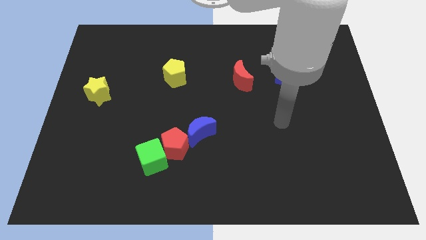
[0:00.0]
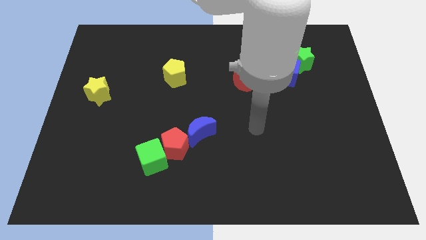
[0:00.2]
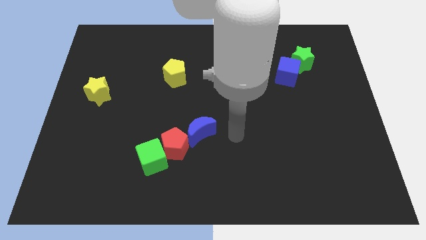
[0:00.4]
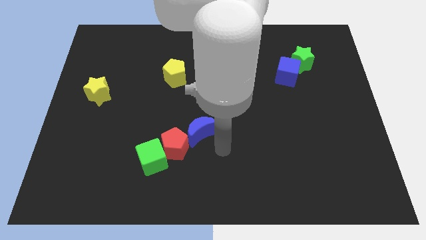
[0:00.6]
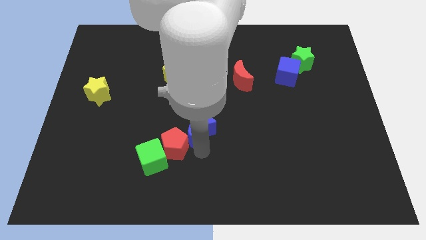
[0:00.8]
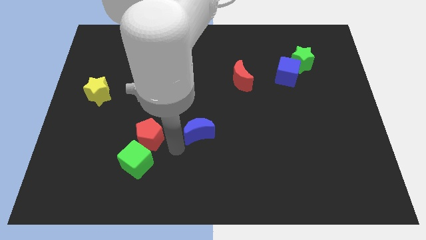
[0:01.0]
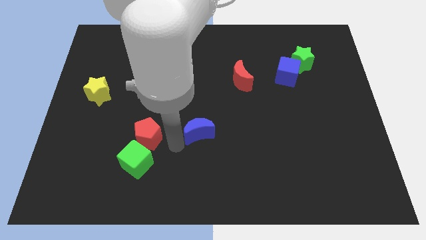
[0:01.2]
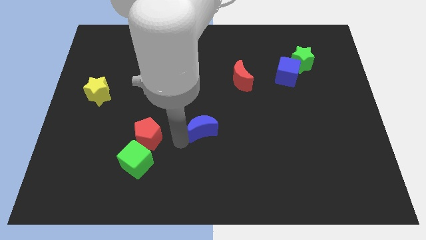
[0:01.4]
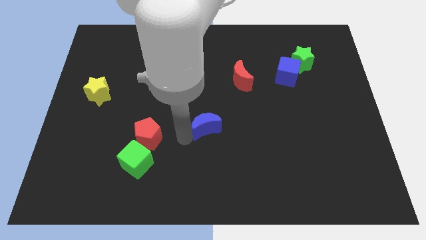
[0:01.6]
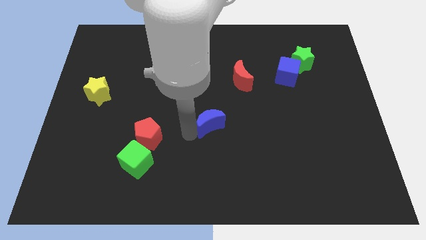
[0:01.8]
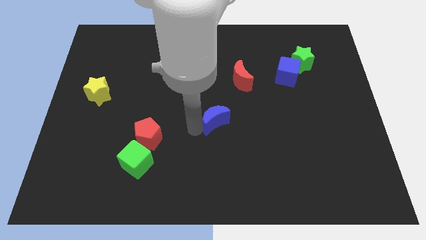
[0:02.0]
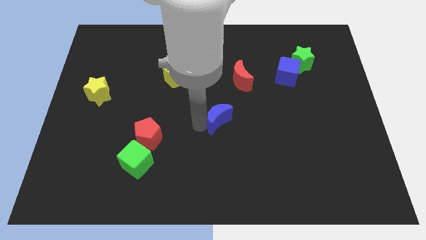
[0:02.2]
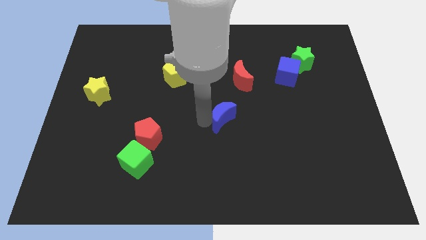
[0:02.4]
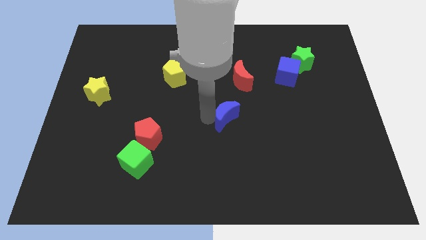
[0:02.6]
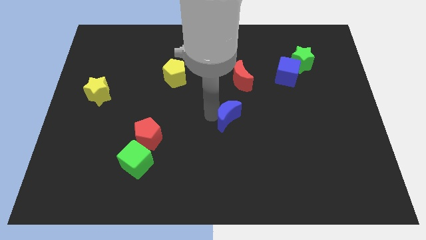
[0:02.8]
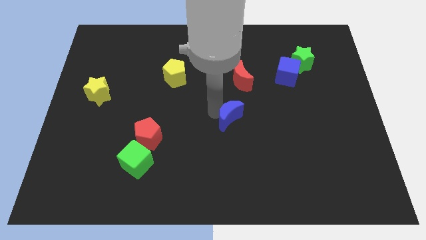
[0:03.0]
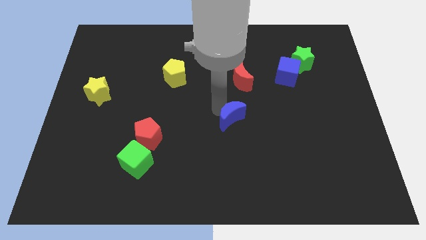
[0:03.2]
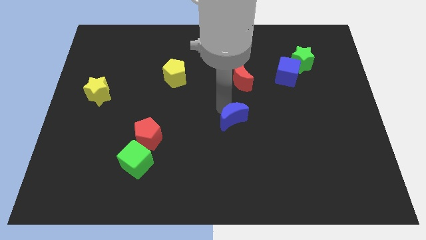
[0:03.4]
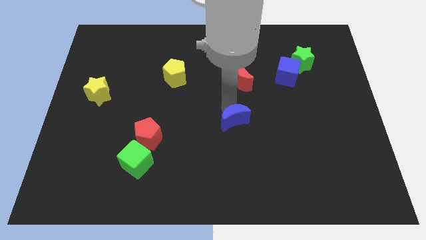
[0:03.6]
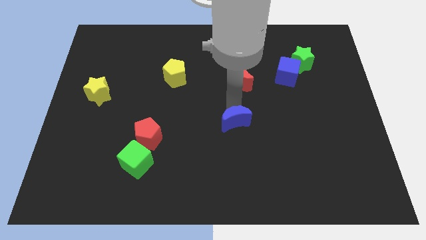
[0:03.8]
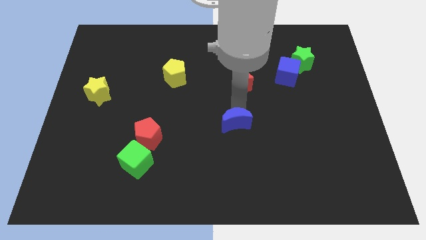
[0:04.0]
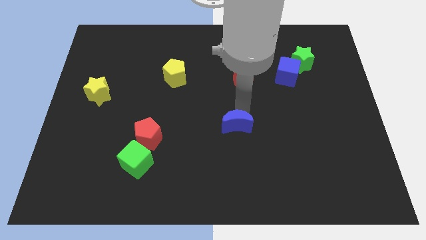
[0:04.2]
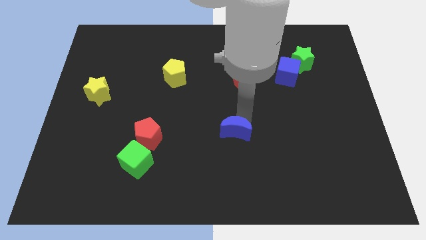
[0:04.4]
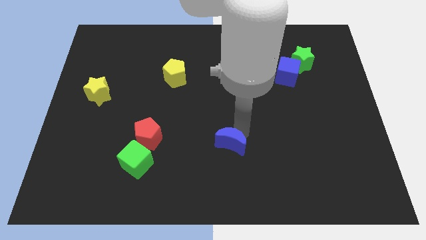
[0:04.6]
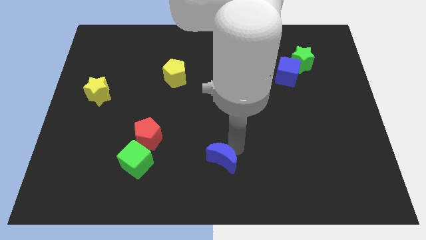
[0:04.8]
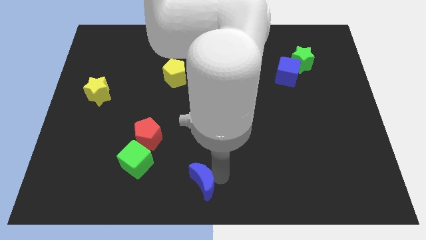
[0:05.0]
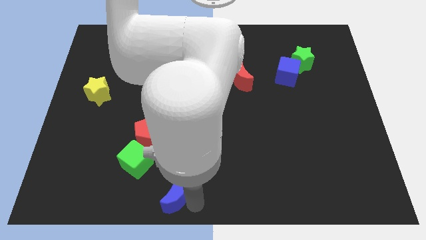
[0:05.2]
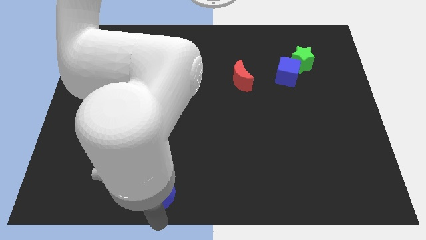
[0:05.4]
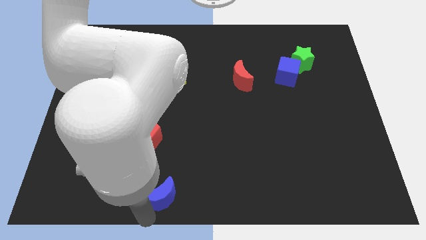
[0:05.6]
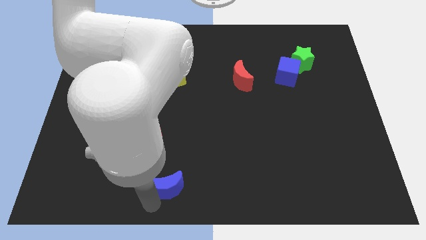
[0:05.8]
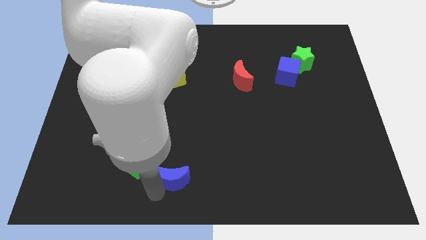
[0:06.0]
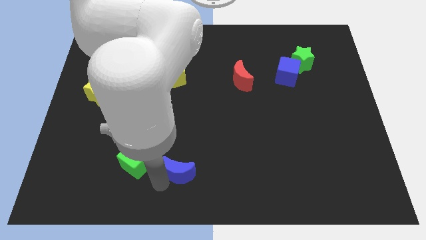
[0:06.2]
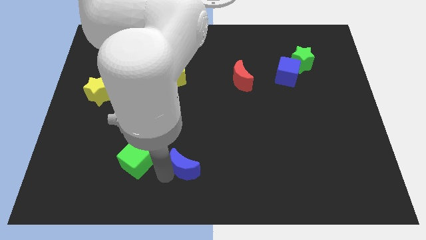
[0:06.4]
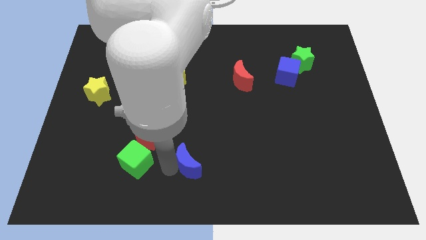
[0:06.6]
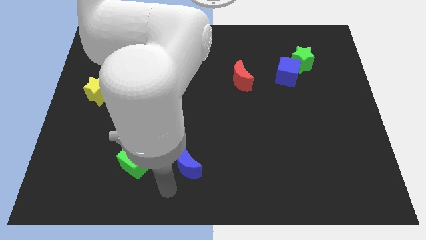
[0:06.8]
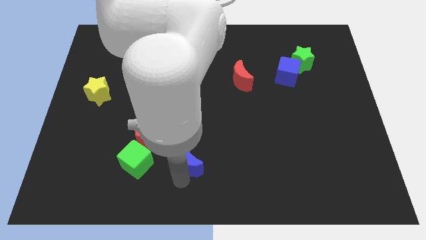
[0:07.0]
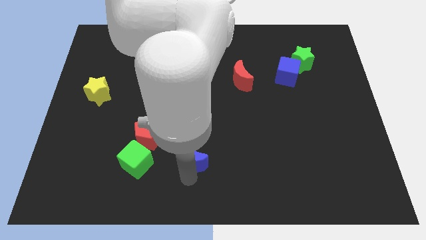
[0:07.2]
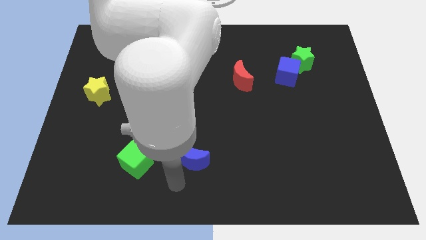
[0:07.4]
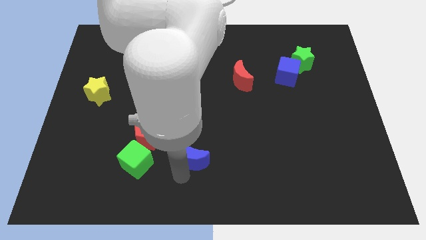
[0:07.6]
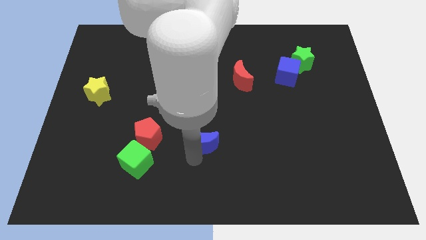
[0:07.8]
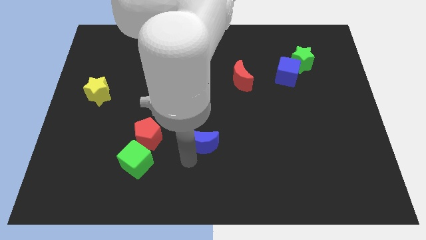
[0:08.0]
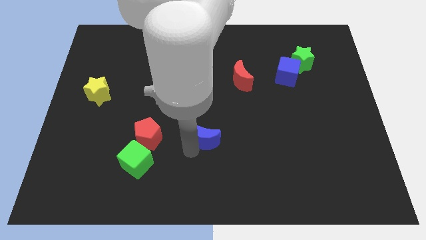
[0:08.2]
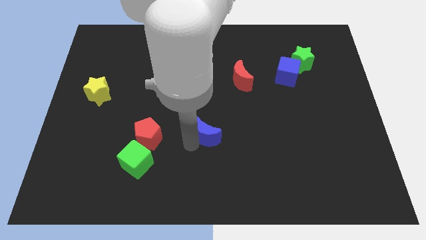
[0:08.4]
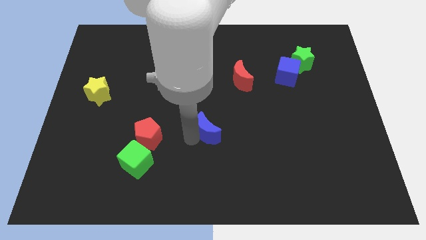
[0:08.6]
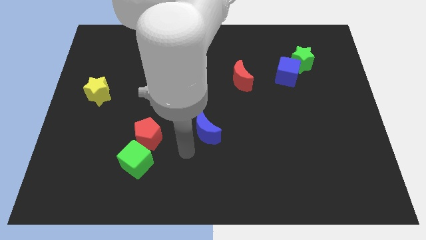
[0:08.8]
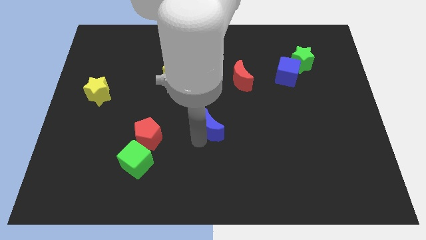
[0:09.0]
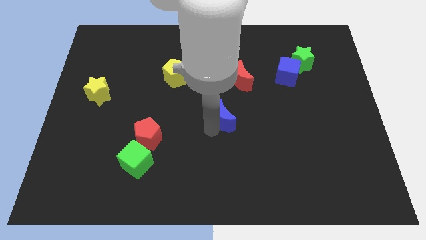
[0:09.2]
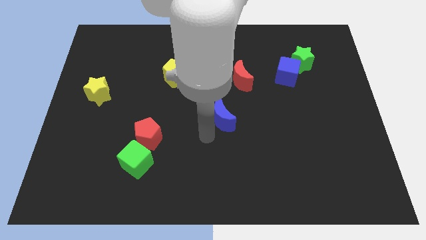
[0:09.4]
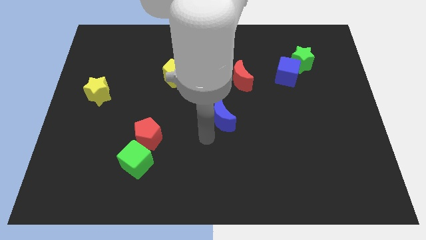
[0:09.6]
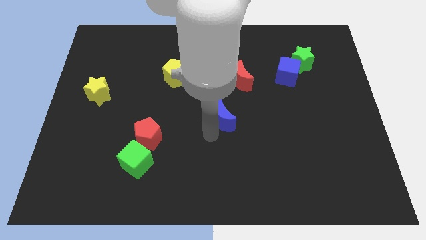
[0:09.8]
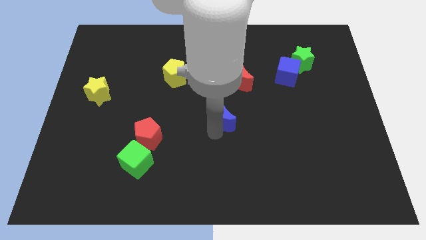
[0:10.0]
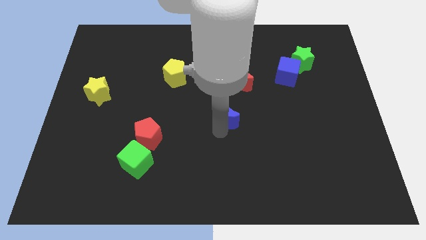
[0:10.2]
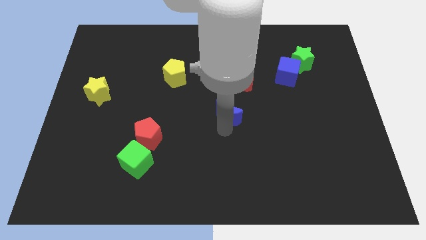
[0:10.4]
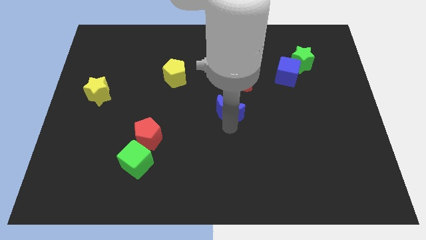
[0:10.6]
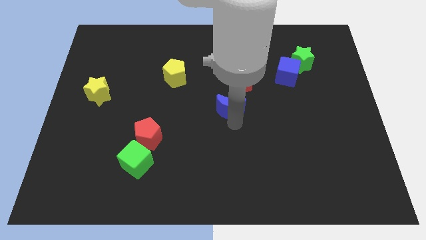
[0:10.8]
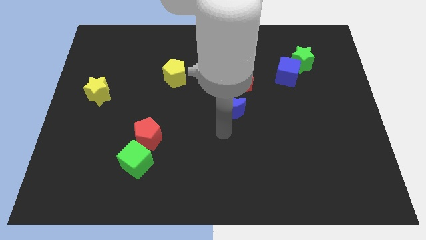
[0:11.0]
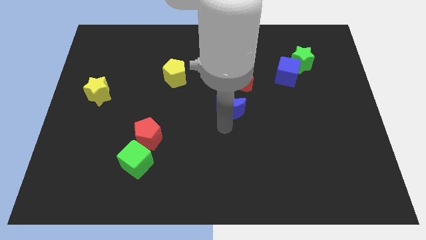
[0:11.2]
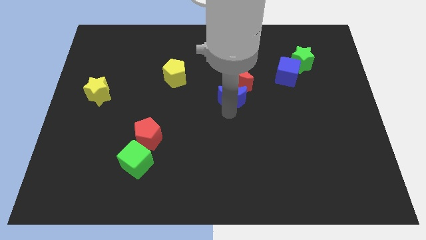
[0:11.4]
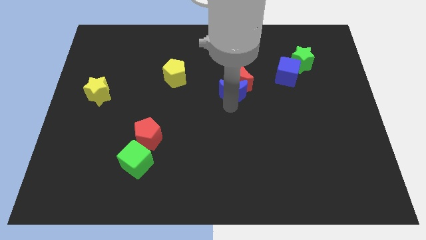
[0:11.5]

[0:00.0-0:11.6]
put the blue moon next to the red moon

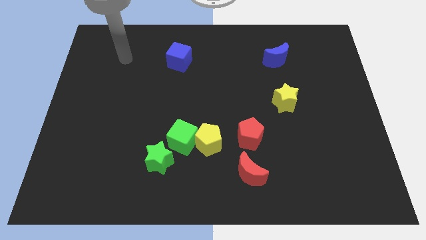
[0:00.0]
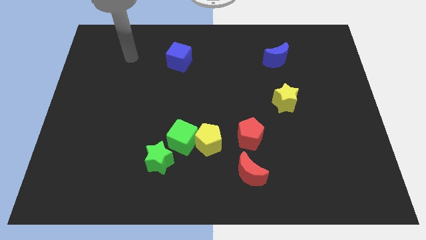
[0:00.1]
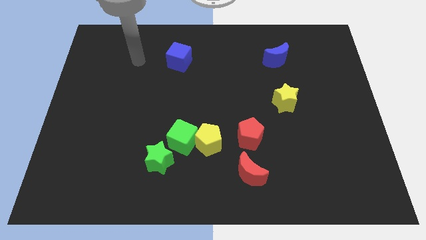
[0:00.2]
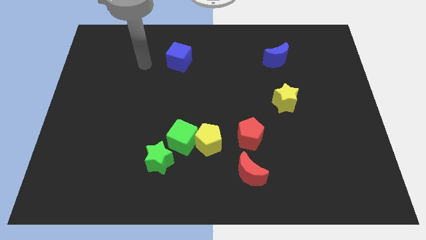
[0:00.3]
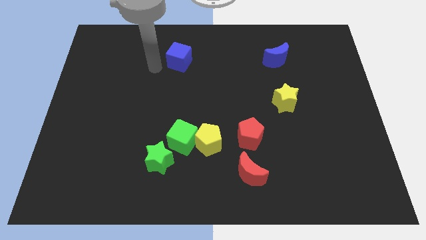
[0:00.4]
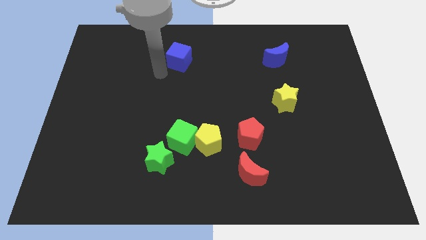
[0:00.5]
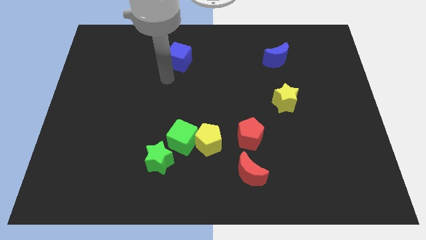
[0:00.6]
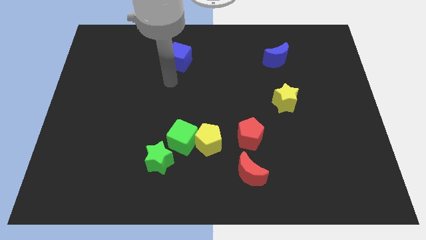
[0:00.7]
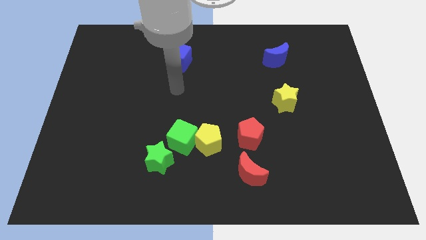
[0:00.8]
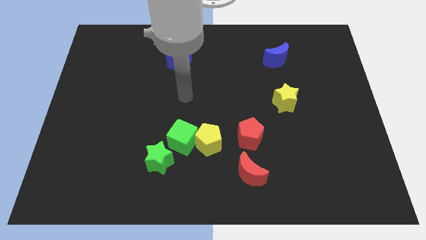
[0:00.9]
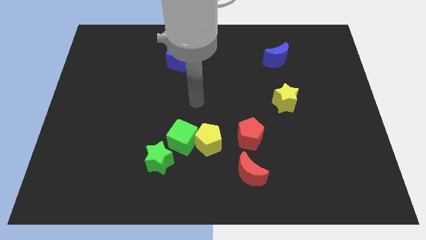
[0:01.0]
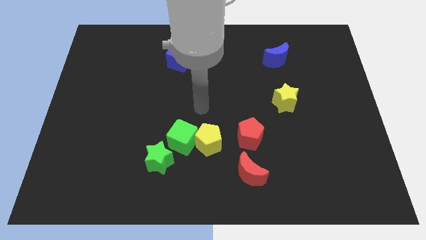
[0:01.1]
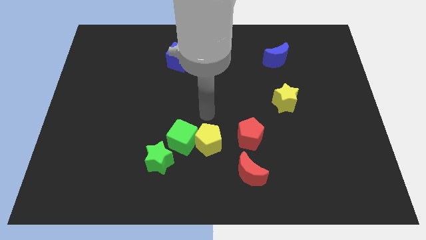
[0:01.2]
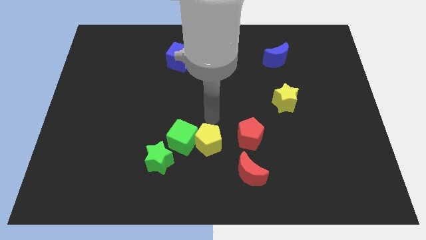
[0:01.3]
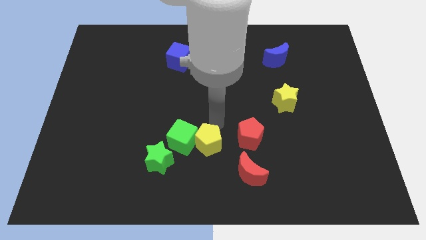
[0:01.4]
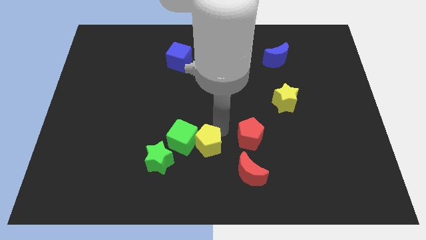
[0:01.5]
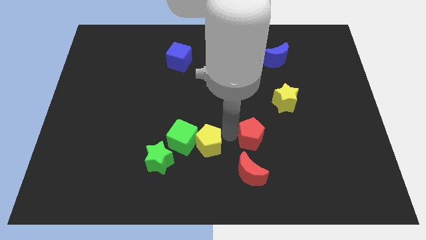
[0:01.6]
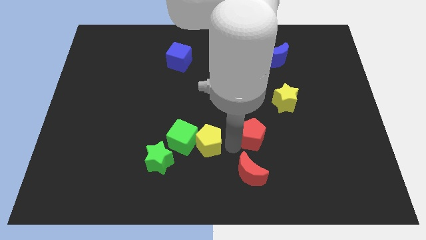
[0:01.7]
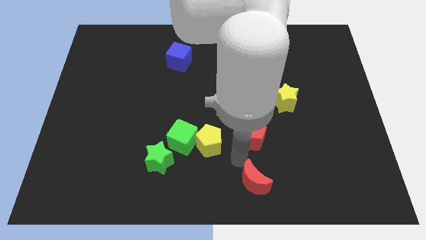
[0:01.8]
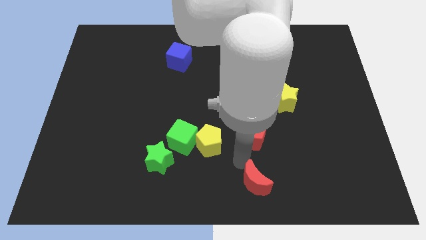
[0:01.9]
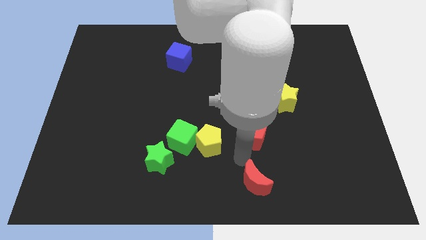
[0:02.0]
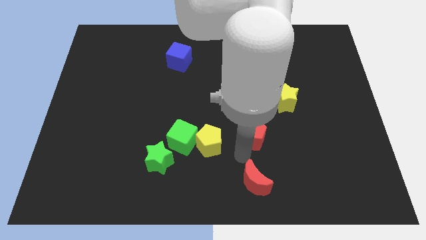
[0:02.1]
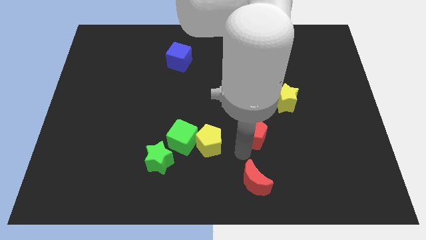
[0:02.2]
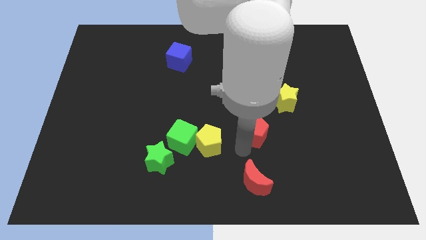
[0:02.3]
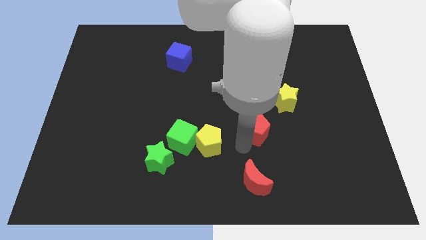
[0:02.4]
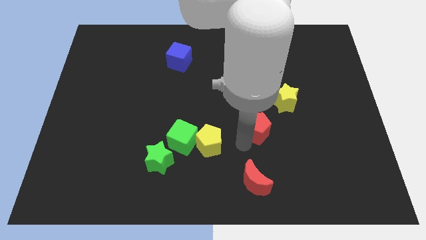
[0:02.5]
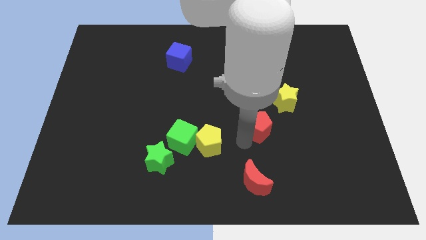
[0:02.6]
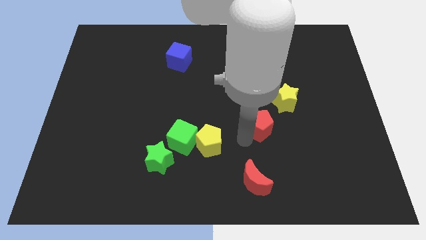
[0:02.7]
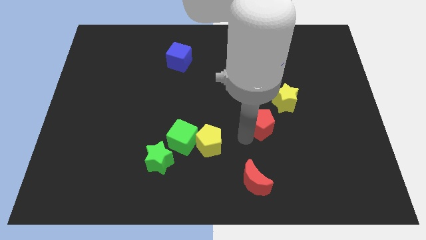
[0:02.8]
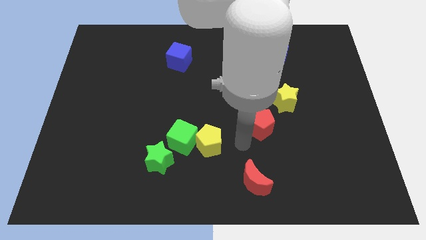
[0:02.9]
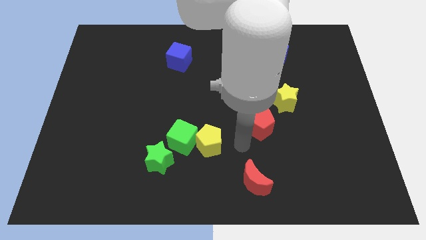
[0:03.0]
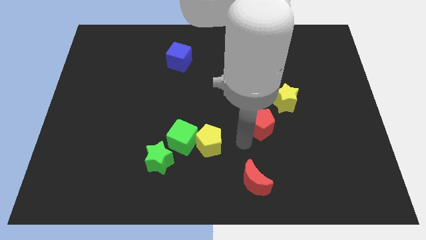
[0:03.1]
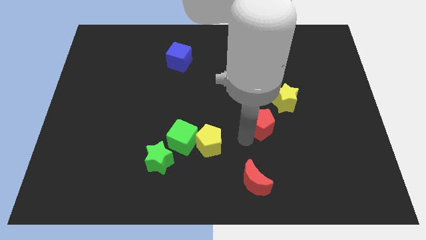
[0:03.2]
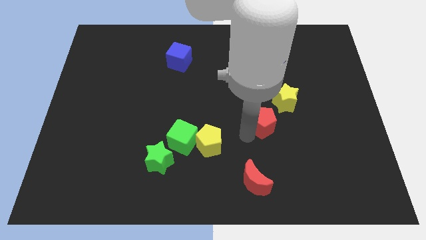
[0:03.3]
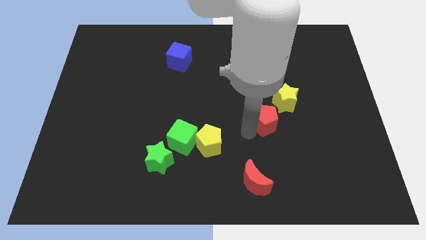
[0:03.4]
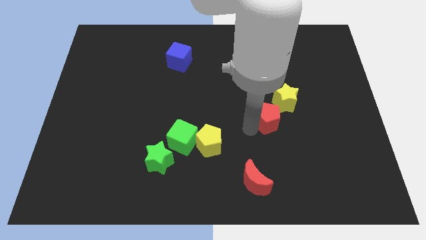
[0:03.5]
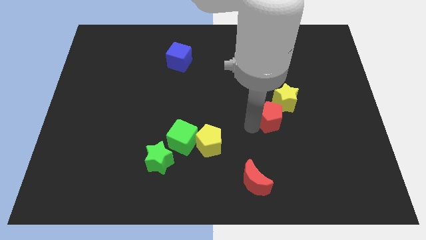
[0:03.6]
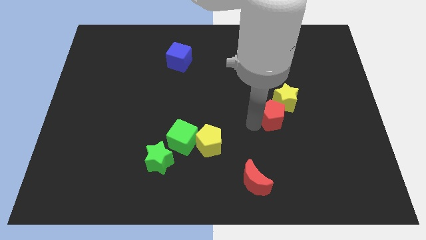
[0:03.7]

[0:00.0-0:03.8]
slide the red pentagon close to the yellow star
